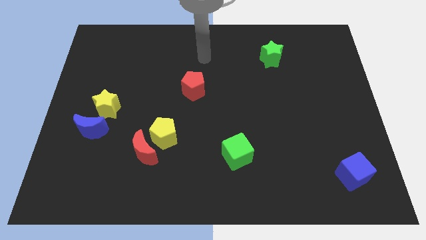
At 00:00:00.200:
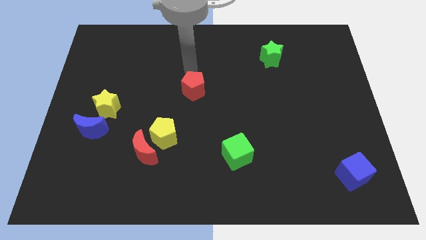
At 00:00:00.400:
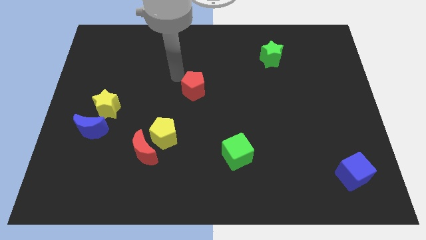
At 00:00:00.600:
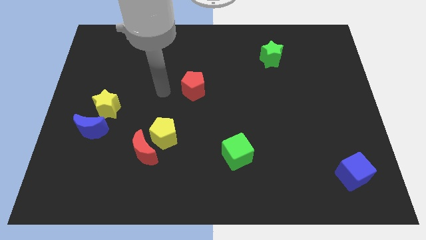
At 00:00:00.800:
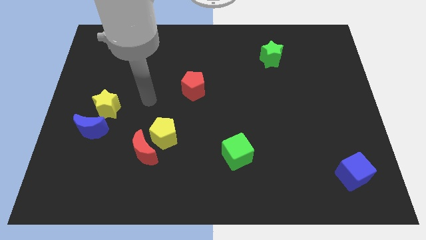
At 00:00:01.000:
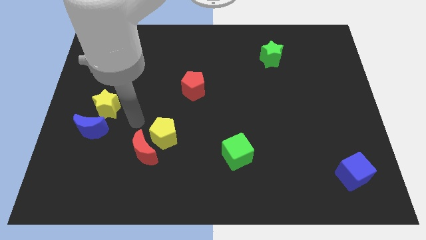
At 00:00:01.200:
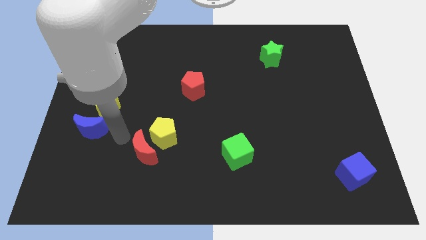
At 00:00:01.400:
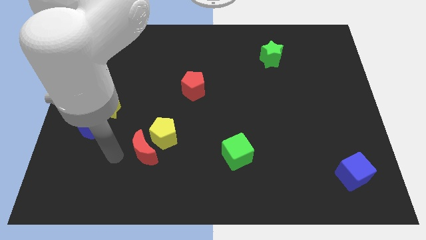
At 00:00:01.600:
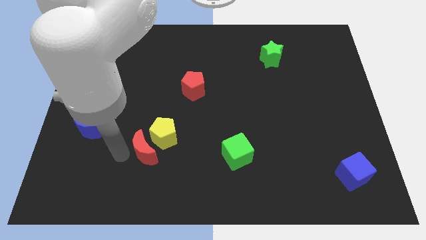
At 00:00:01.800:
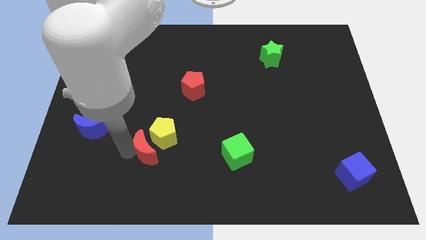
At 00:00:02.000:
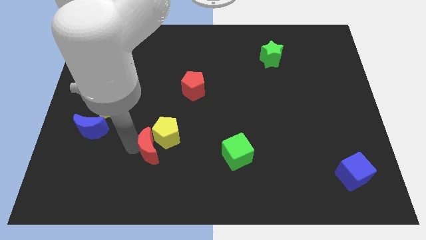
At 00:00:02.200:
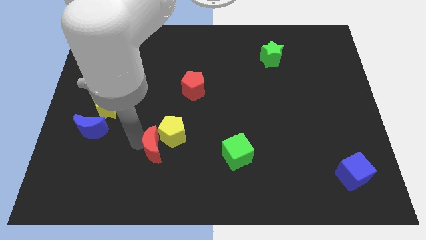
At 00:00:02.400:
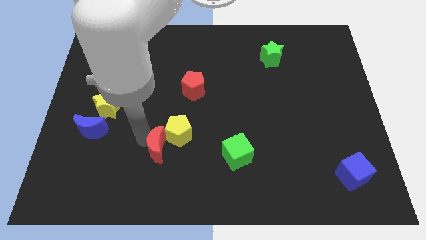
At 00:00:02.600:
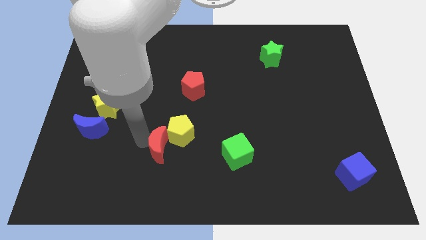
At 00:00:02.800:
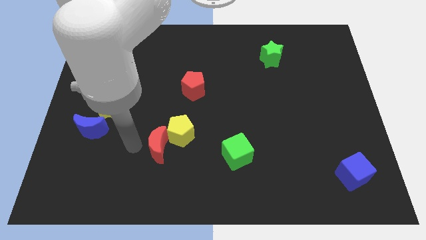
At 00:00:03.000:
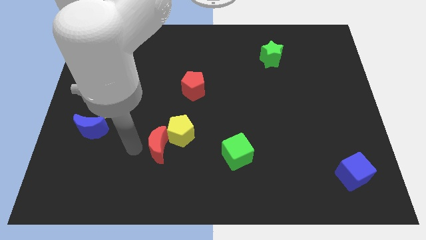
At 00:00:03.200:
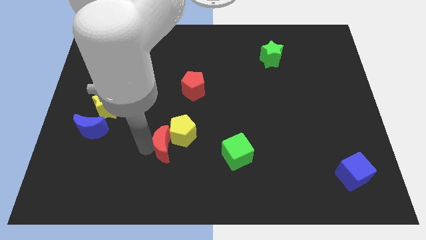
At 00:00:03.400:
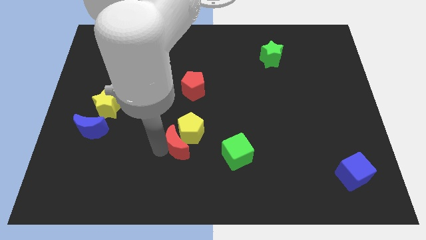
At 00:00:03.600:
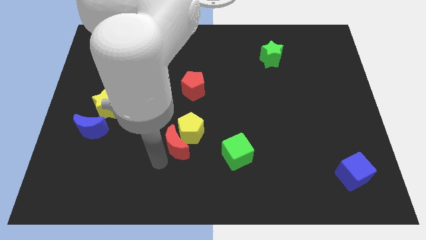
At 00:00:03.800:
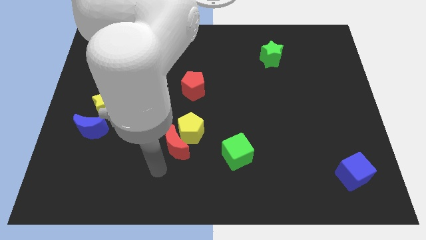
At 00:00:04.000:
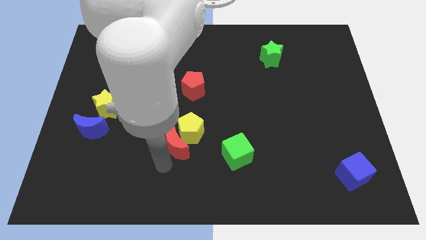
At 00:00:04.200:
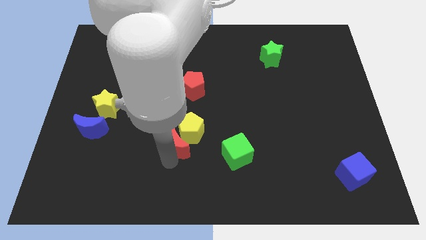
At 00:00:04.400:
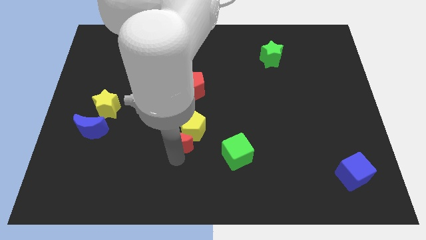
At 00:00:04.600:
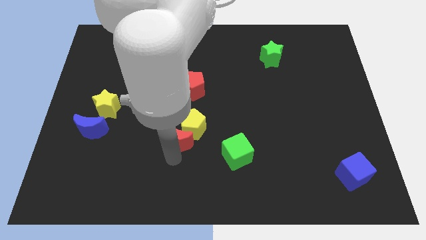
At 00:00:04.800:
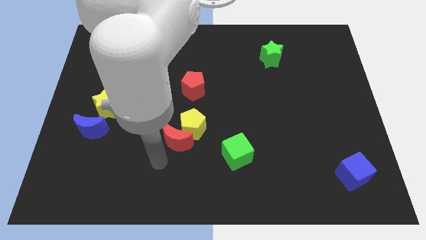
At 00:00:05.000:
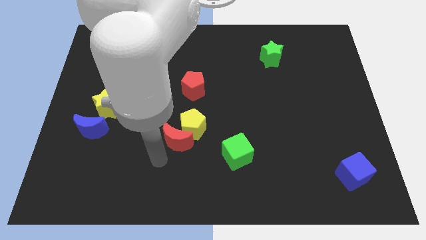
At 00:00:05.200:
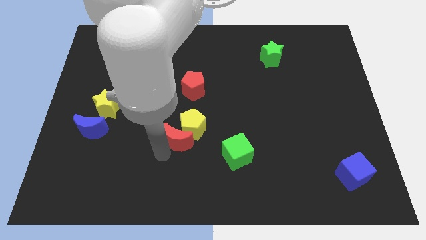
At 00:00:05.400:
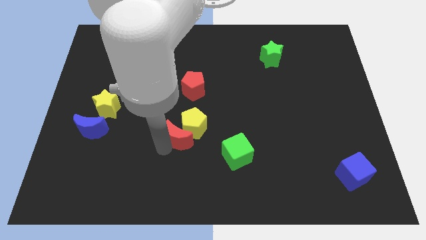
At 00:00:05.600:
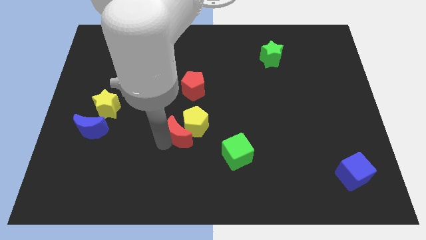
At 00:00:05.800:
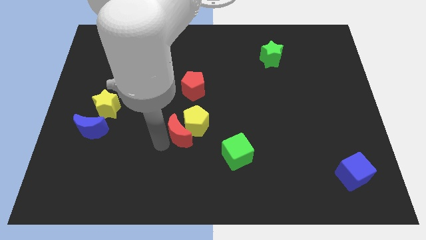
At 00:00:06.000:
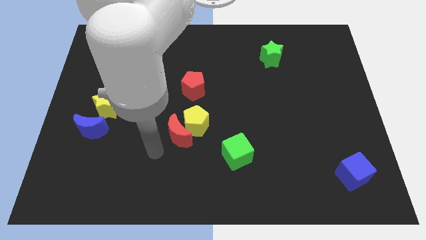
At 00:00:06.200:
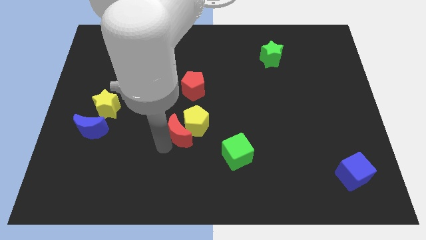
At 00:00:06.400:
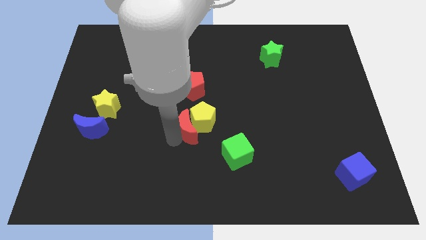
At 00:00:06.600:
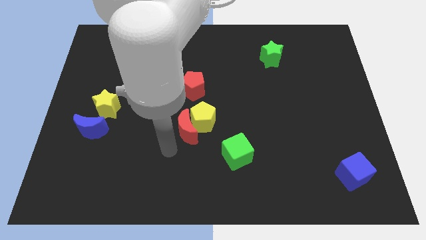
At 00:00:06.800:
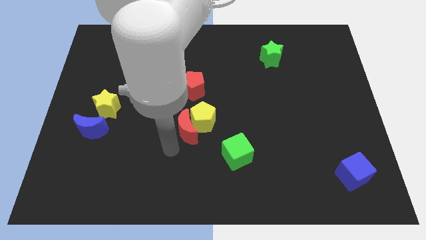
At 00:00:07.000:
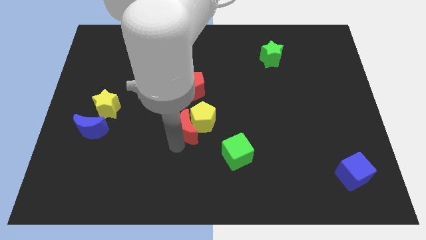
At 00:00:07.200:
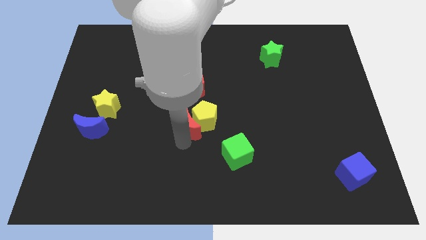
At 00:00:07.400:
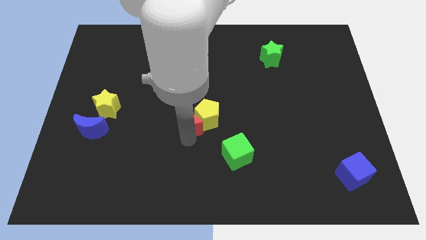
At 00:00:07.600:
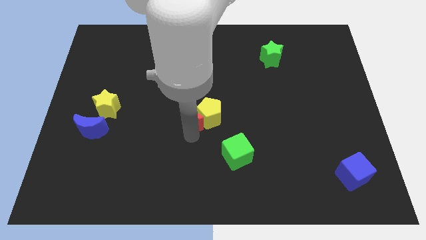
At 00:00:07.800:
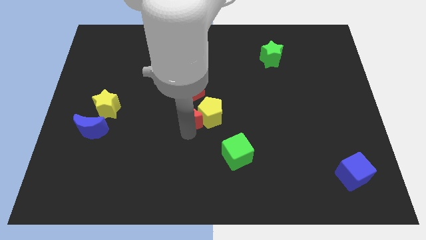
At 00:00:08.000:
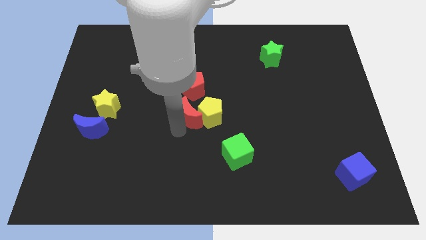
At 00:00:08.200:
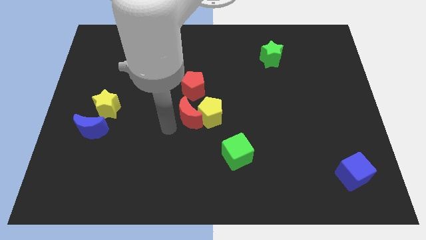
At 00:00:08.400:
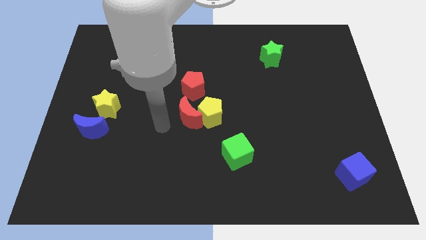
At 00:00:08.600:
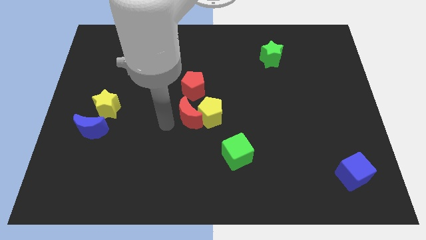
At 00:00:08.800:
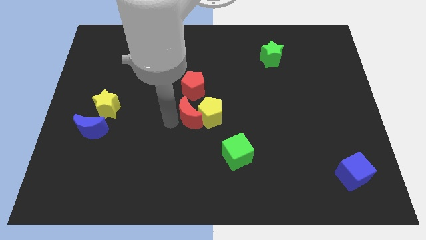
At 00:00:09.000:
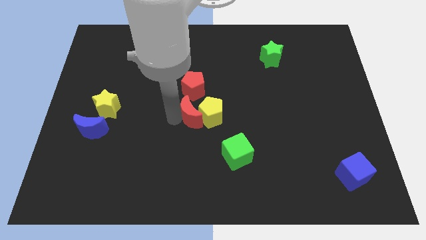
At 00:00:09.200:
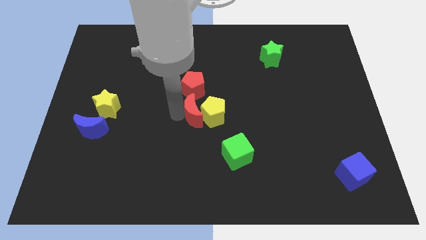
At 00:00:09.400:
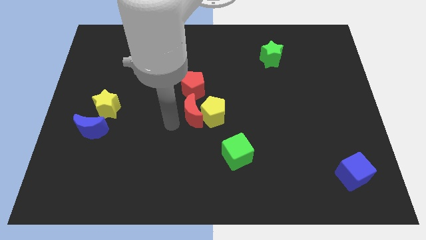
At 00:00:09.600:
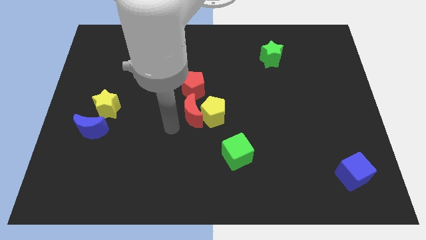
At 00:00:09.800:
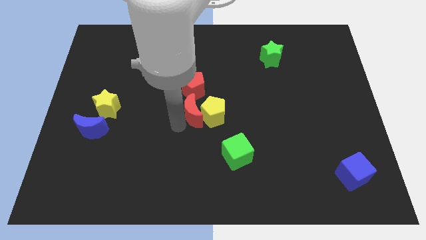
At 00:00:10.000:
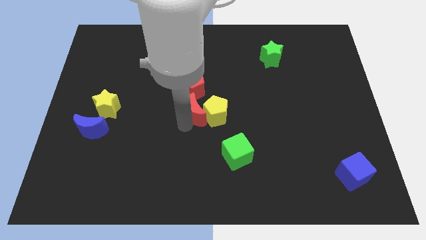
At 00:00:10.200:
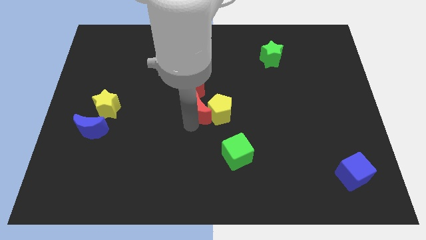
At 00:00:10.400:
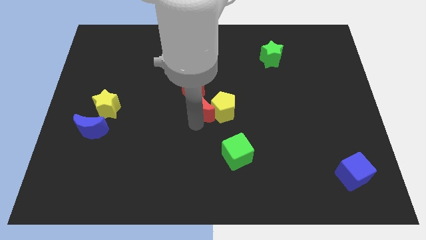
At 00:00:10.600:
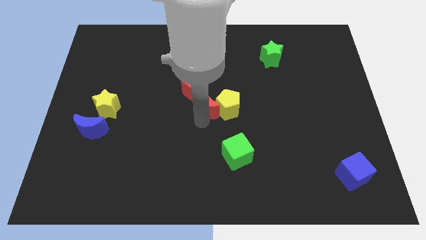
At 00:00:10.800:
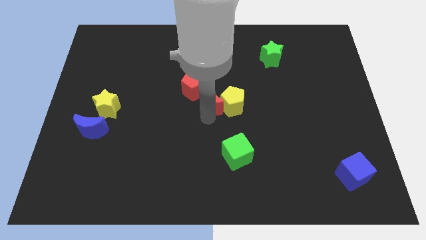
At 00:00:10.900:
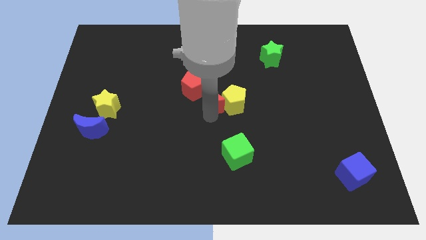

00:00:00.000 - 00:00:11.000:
slide the red moon up and right

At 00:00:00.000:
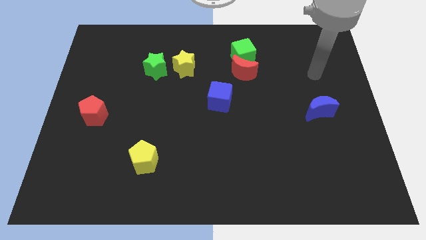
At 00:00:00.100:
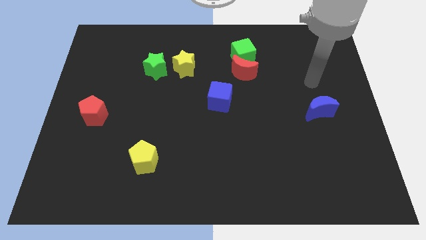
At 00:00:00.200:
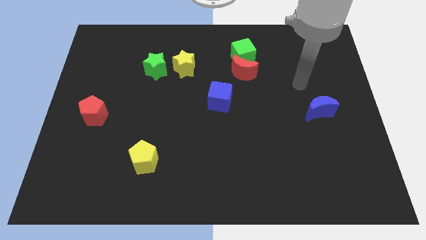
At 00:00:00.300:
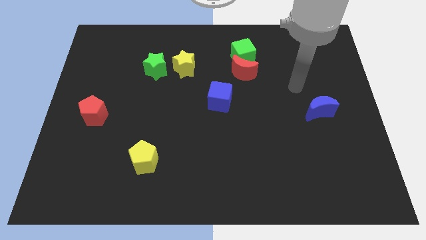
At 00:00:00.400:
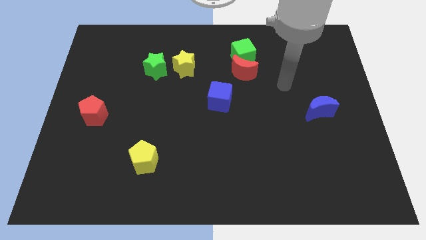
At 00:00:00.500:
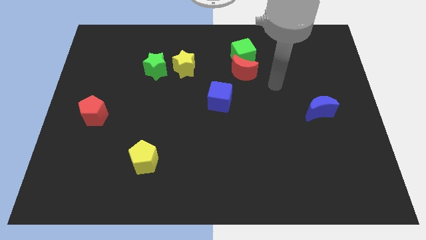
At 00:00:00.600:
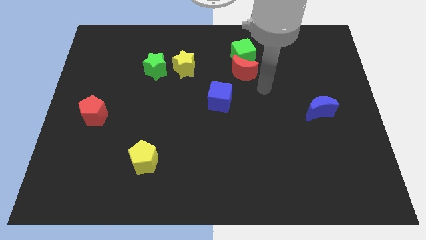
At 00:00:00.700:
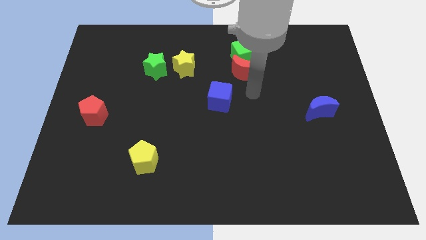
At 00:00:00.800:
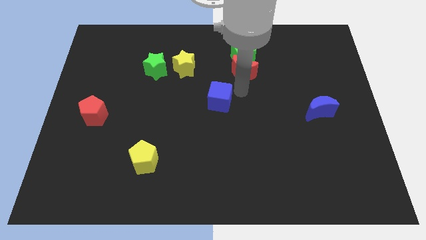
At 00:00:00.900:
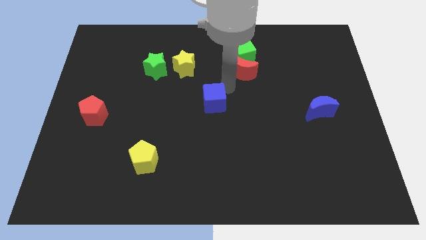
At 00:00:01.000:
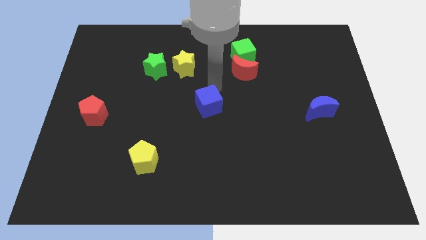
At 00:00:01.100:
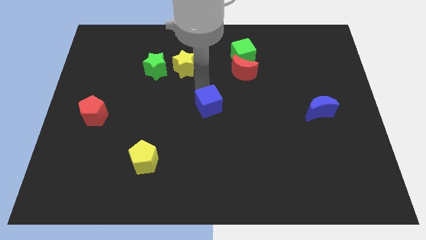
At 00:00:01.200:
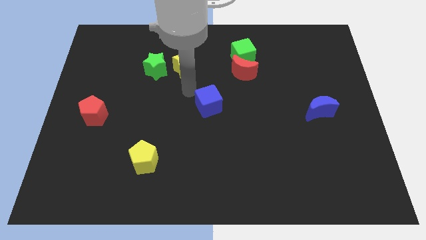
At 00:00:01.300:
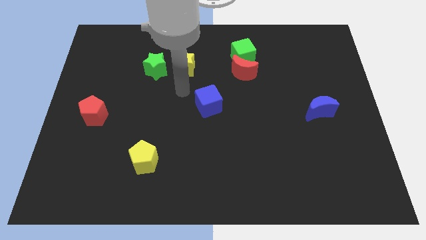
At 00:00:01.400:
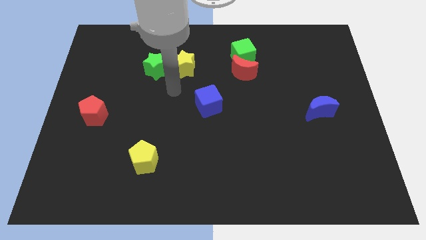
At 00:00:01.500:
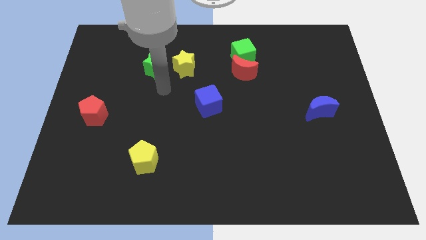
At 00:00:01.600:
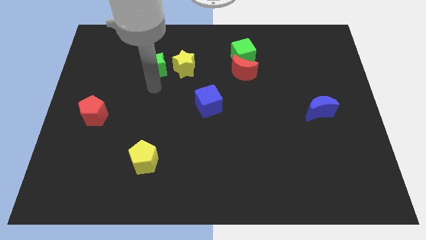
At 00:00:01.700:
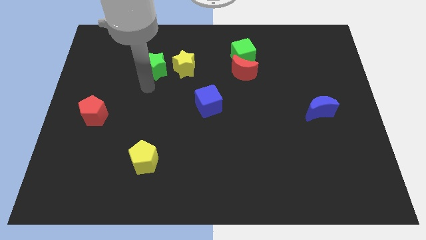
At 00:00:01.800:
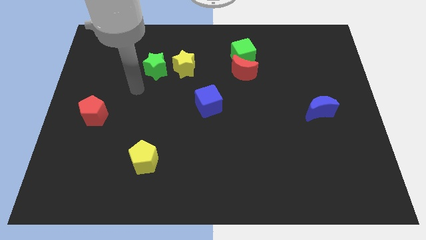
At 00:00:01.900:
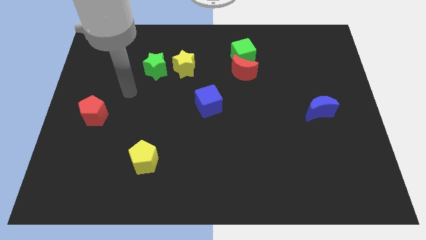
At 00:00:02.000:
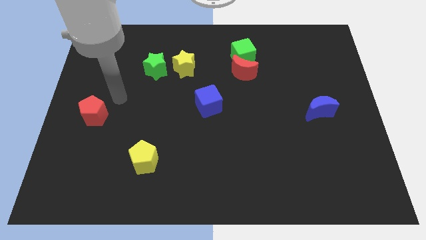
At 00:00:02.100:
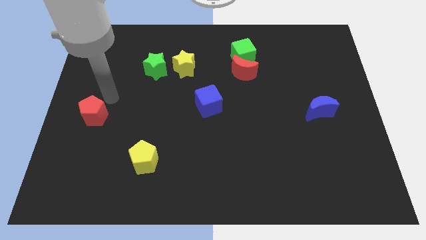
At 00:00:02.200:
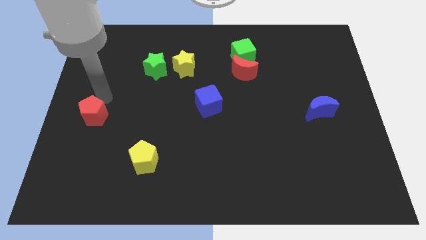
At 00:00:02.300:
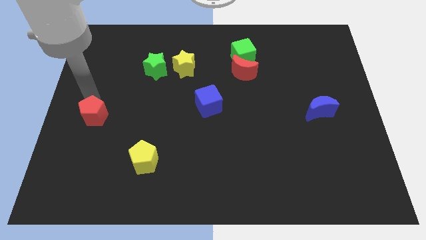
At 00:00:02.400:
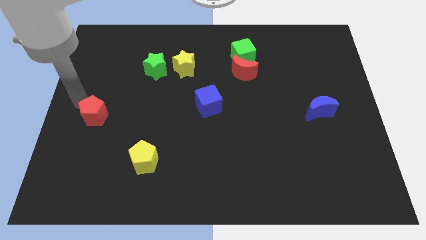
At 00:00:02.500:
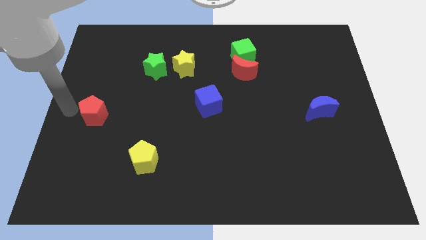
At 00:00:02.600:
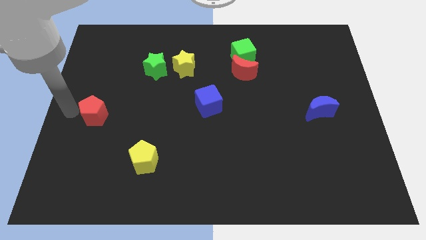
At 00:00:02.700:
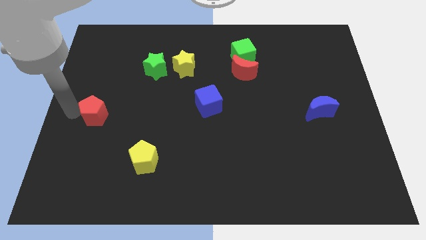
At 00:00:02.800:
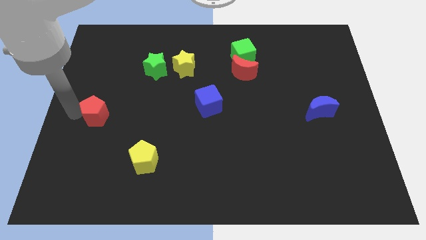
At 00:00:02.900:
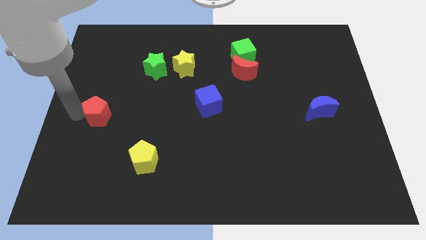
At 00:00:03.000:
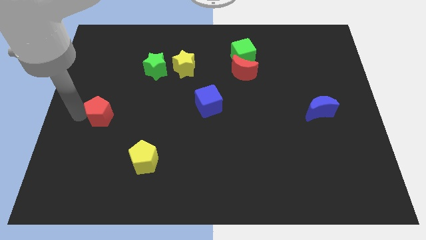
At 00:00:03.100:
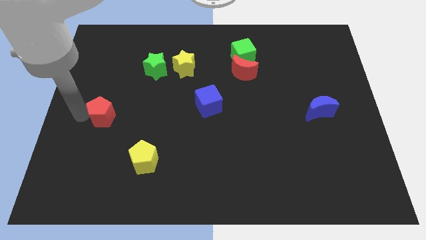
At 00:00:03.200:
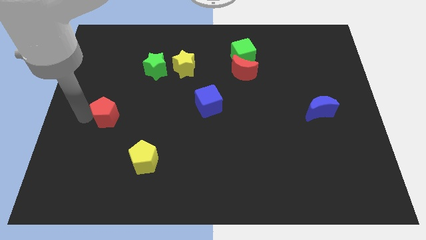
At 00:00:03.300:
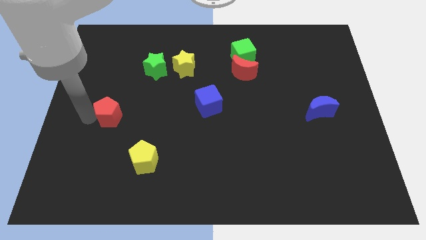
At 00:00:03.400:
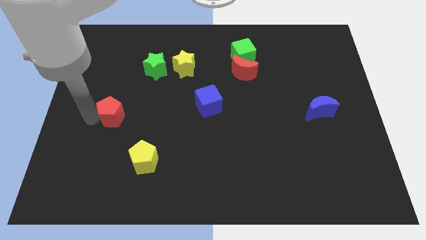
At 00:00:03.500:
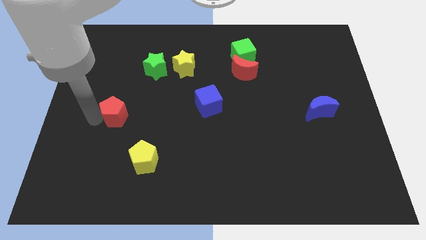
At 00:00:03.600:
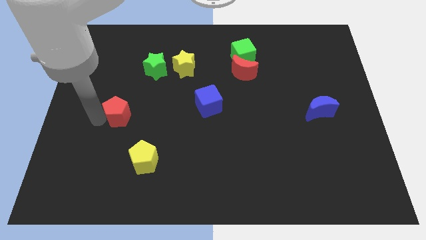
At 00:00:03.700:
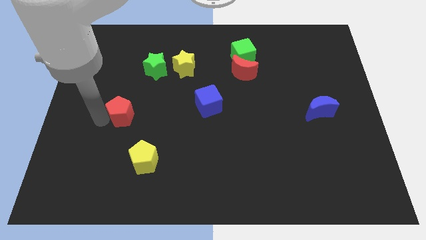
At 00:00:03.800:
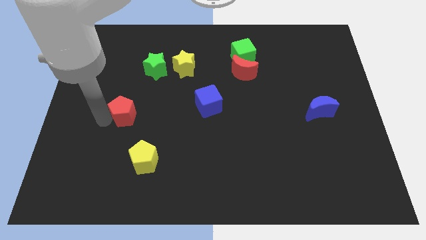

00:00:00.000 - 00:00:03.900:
move the red pentagon a little right
